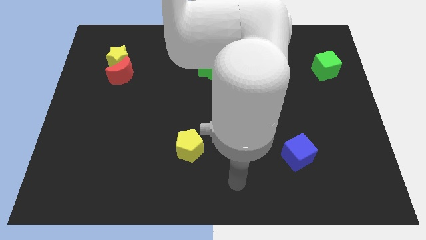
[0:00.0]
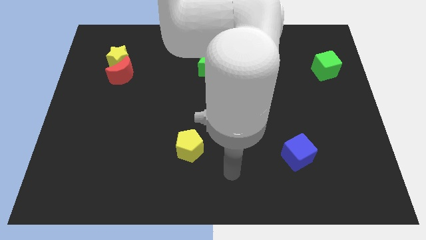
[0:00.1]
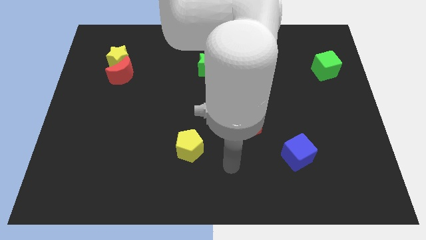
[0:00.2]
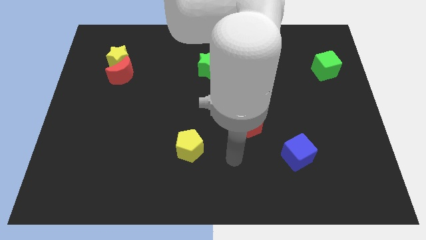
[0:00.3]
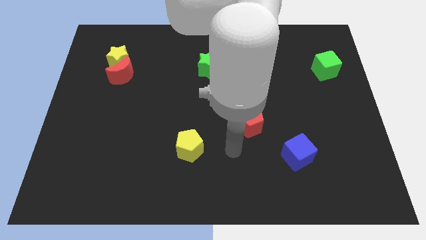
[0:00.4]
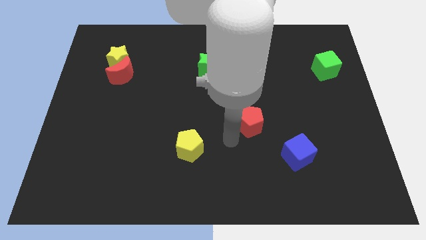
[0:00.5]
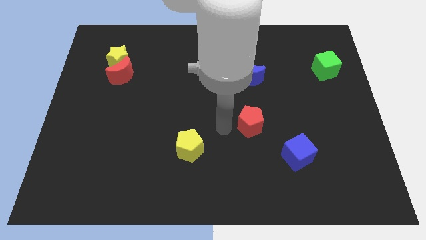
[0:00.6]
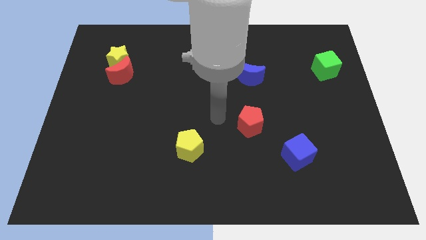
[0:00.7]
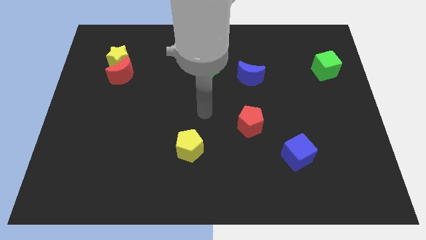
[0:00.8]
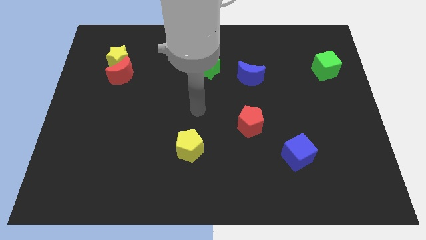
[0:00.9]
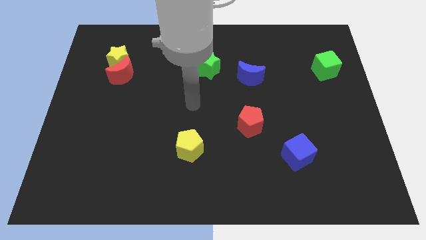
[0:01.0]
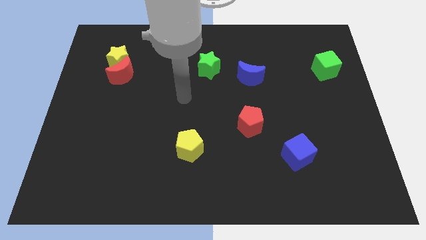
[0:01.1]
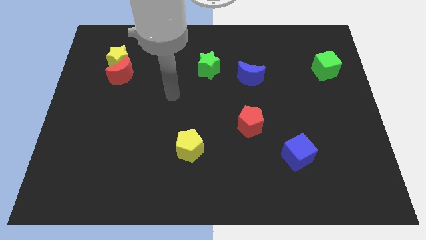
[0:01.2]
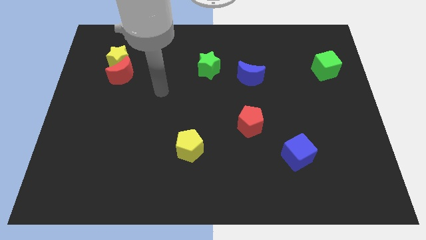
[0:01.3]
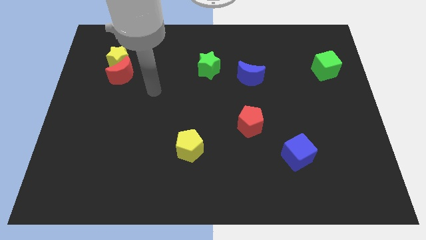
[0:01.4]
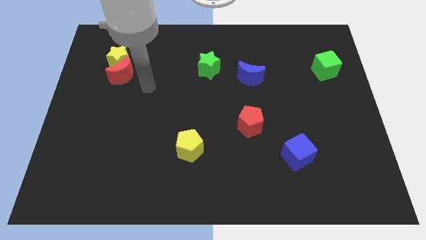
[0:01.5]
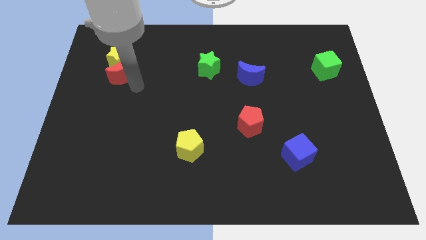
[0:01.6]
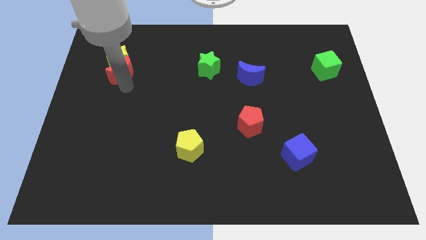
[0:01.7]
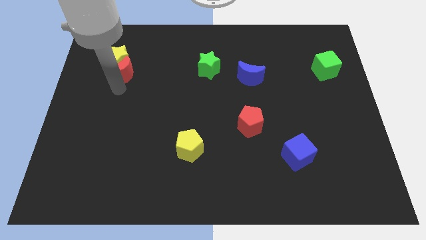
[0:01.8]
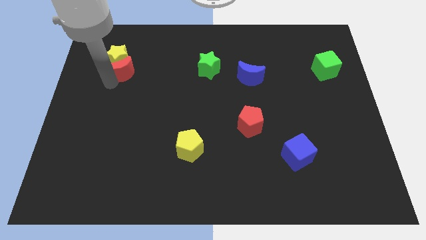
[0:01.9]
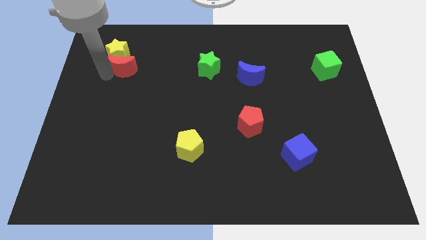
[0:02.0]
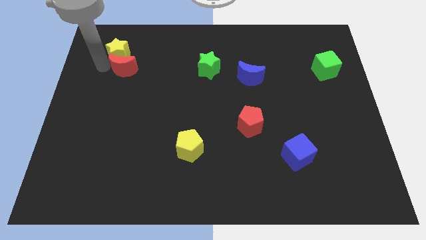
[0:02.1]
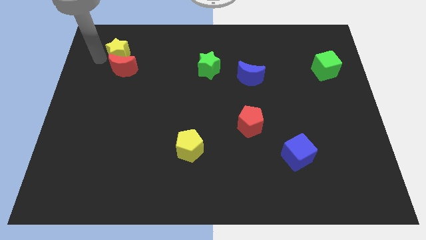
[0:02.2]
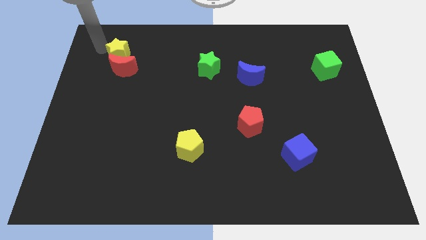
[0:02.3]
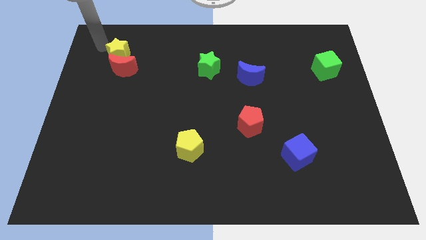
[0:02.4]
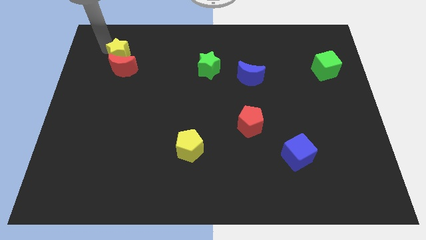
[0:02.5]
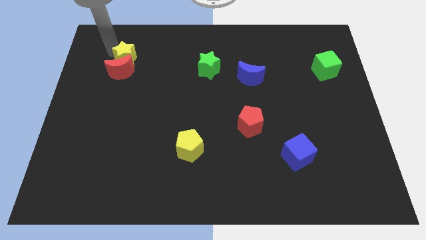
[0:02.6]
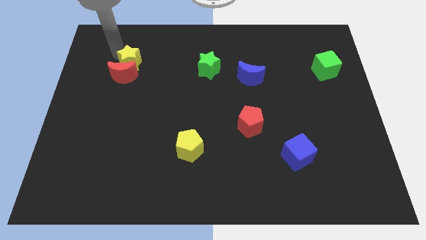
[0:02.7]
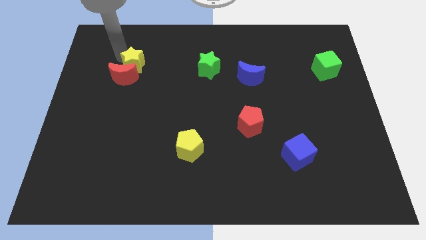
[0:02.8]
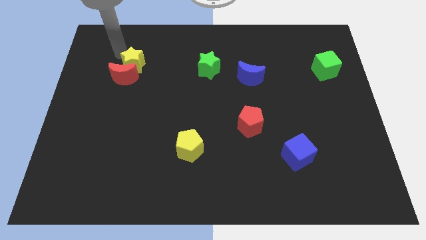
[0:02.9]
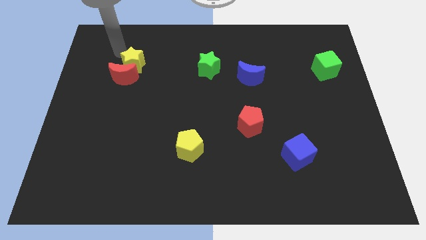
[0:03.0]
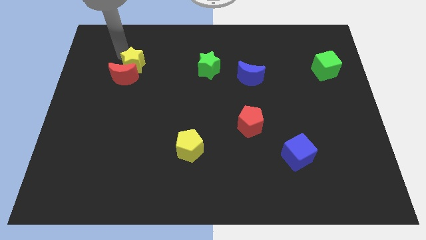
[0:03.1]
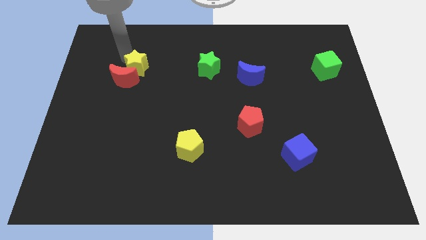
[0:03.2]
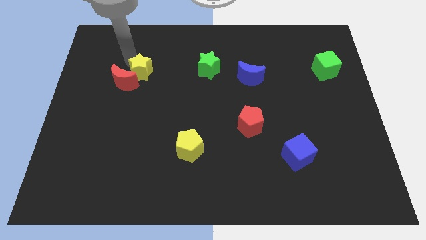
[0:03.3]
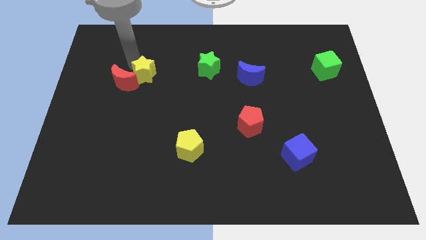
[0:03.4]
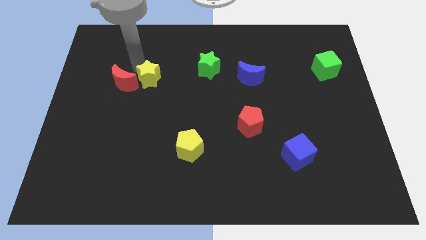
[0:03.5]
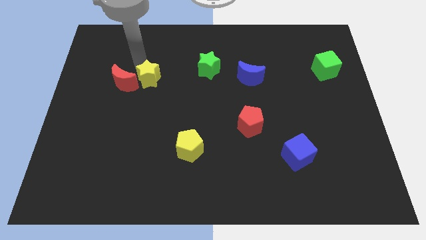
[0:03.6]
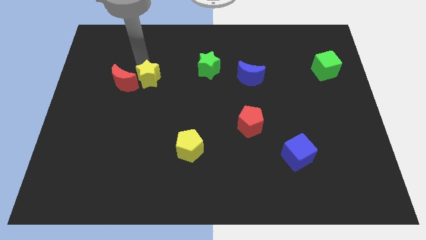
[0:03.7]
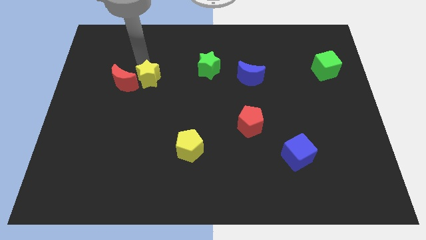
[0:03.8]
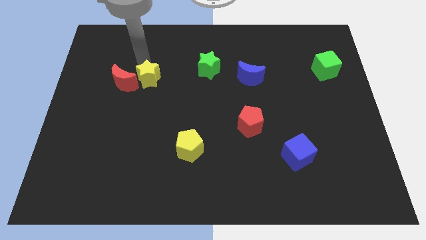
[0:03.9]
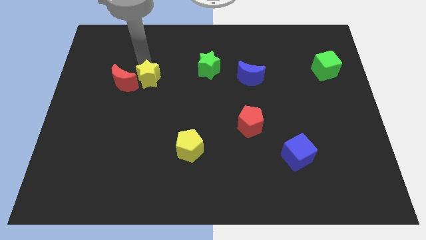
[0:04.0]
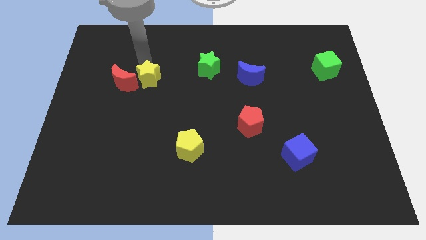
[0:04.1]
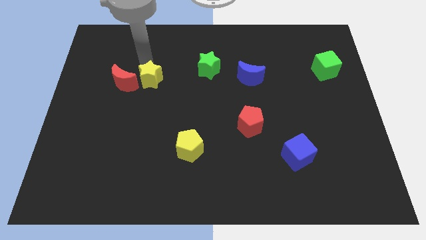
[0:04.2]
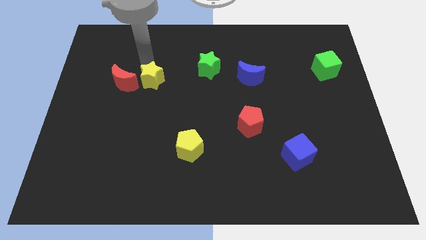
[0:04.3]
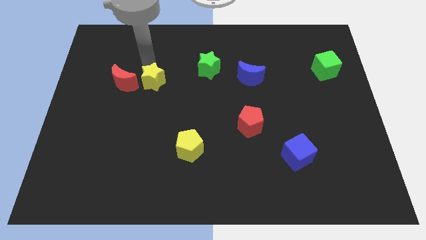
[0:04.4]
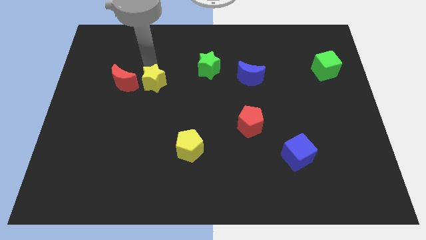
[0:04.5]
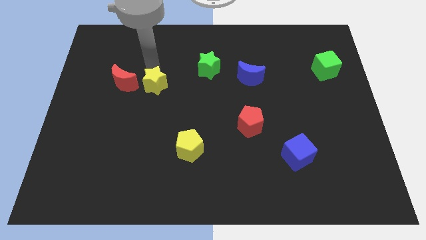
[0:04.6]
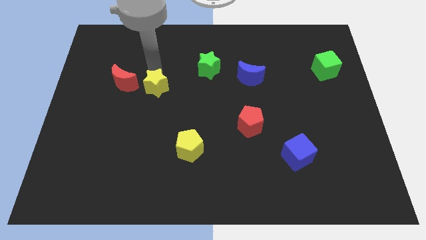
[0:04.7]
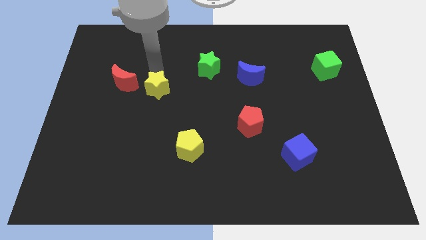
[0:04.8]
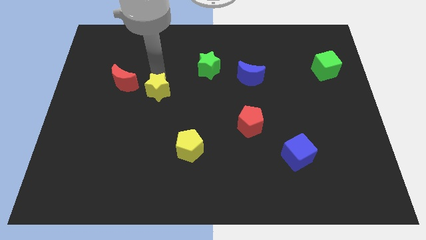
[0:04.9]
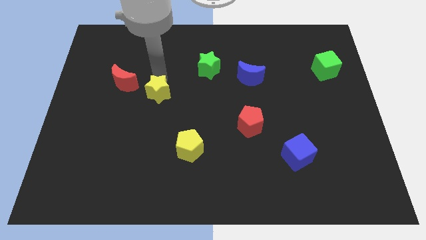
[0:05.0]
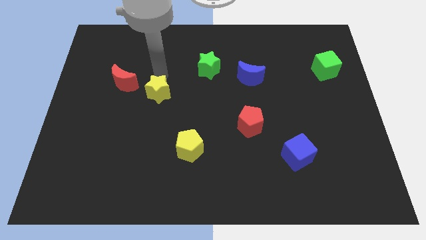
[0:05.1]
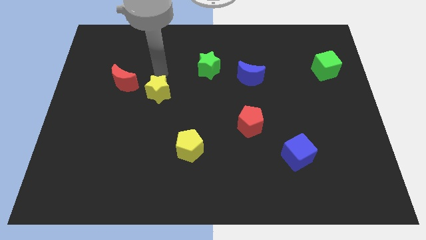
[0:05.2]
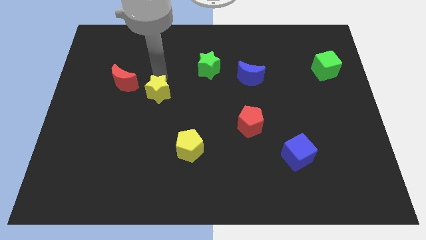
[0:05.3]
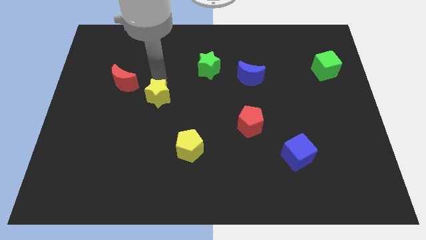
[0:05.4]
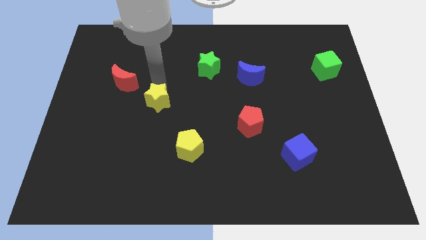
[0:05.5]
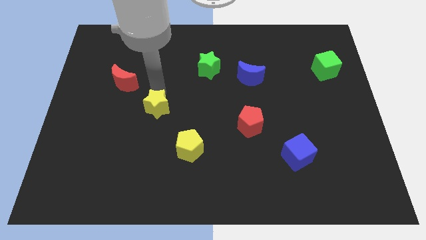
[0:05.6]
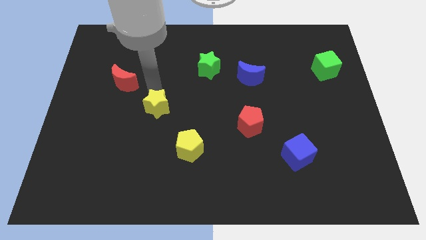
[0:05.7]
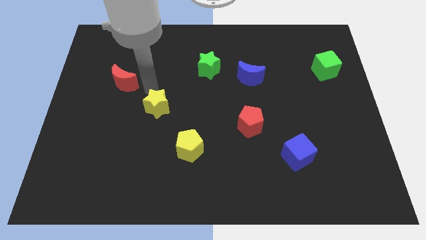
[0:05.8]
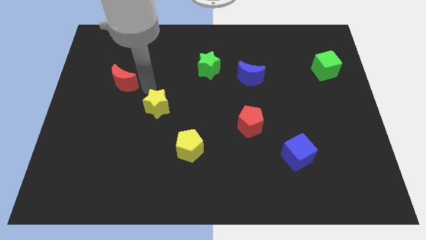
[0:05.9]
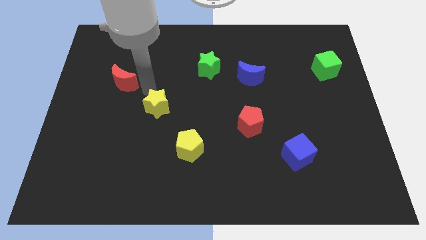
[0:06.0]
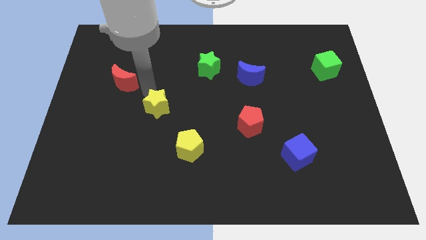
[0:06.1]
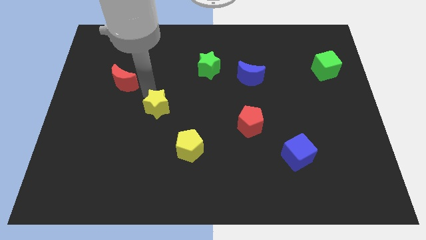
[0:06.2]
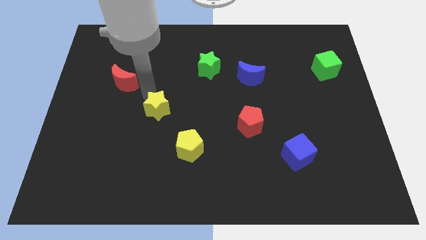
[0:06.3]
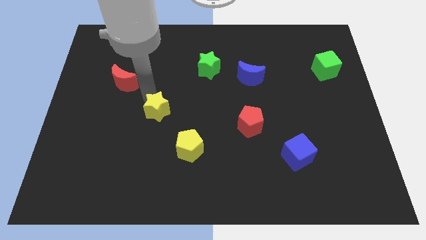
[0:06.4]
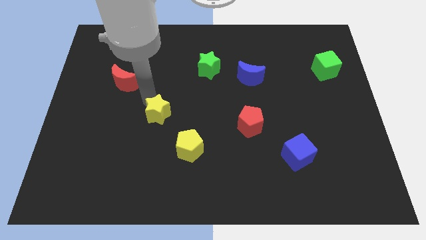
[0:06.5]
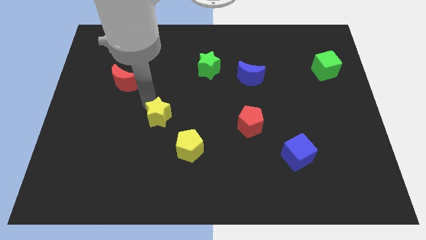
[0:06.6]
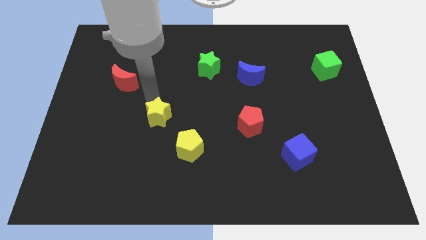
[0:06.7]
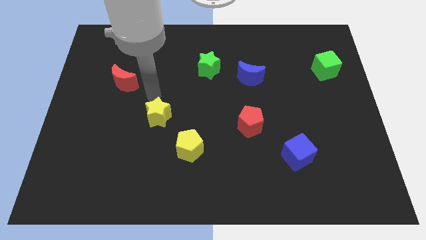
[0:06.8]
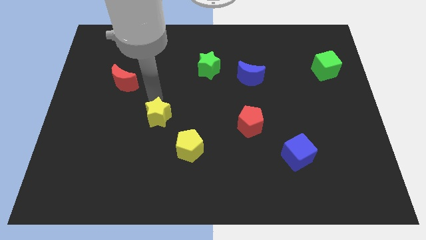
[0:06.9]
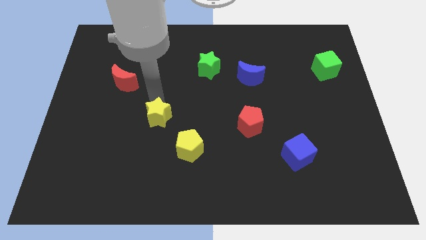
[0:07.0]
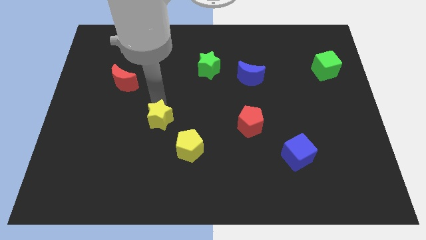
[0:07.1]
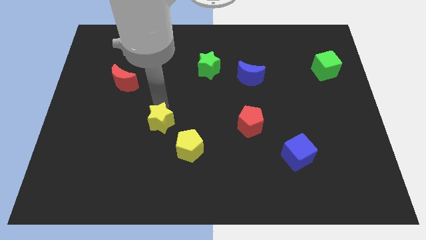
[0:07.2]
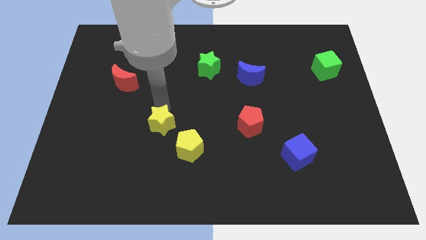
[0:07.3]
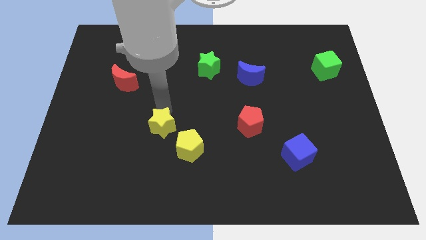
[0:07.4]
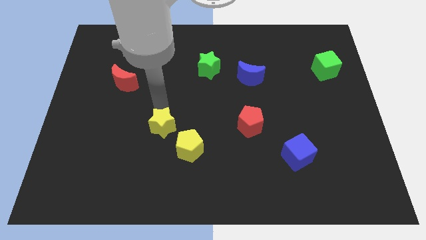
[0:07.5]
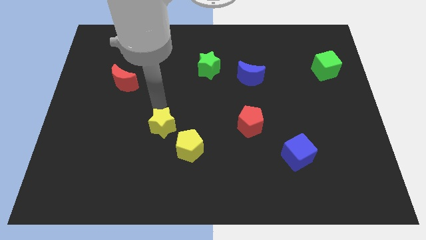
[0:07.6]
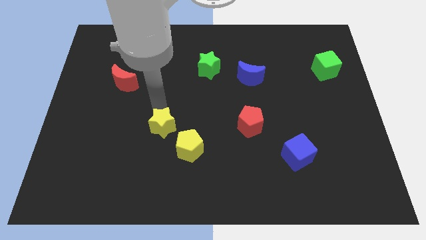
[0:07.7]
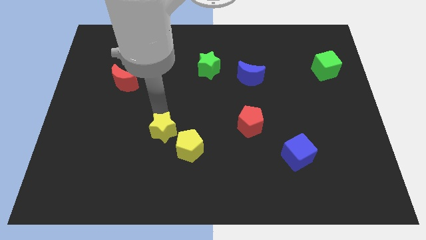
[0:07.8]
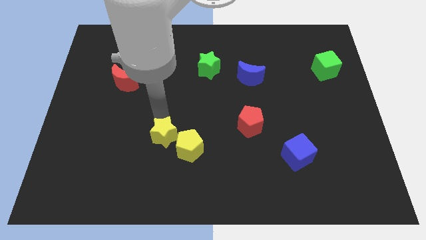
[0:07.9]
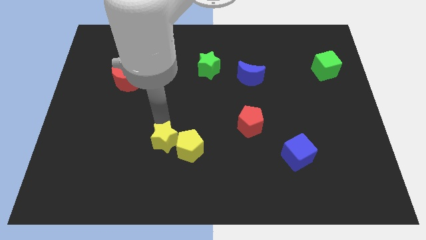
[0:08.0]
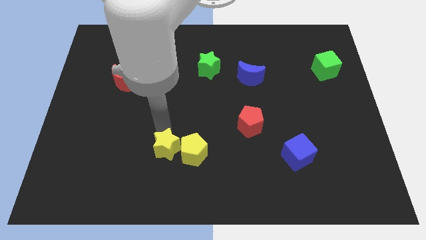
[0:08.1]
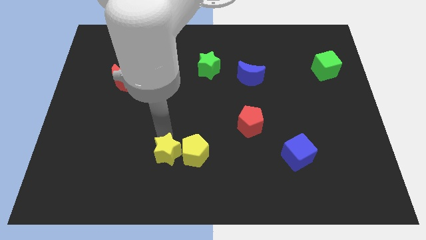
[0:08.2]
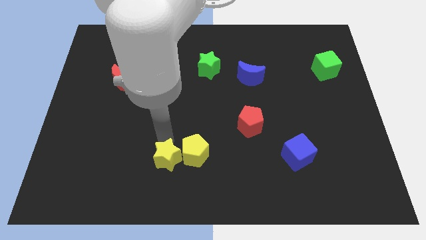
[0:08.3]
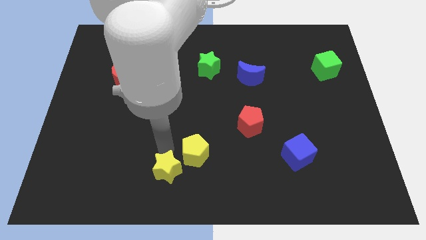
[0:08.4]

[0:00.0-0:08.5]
push the yellow star to the bottom side
